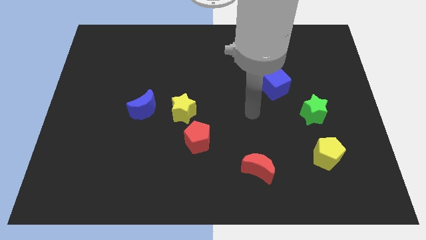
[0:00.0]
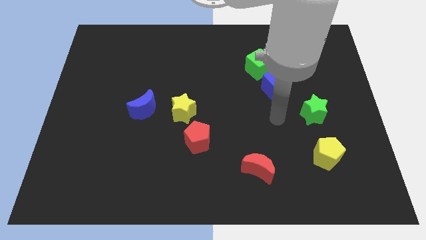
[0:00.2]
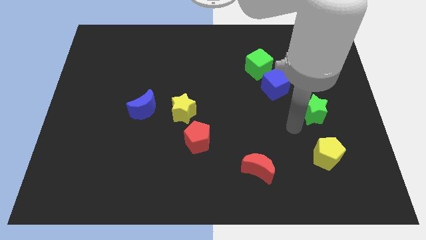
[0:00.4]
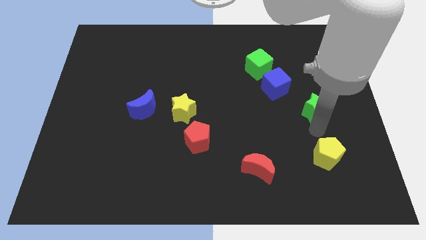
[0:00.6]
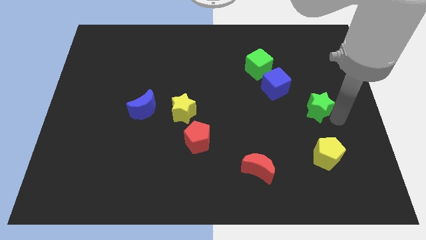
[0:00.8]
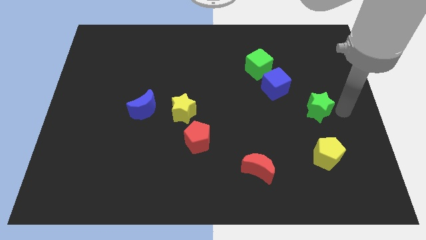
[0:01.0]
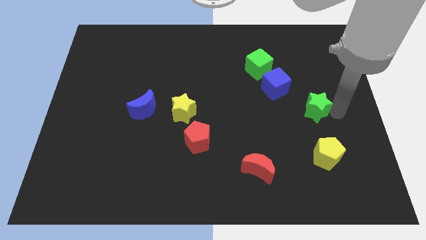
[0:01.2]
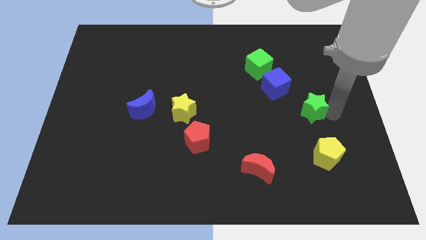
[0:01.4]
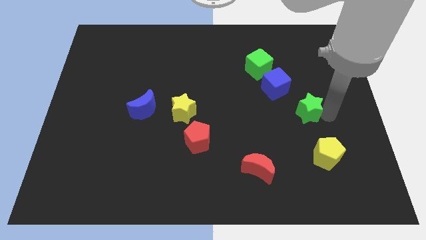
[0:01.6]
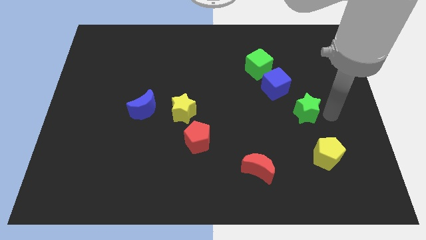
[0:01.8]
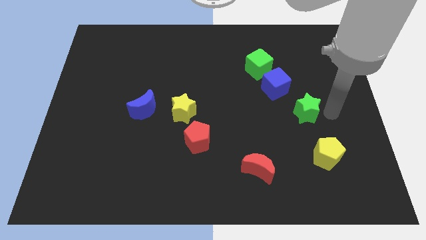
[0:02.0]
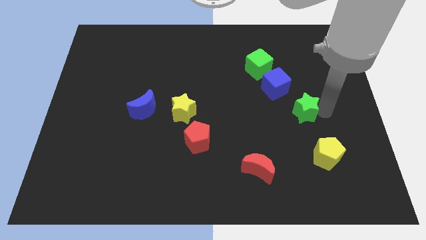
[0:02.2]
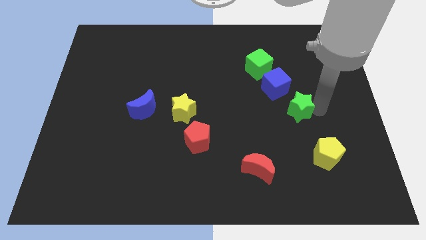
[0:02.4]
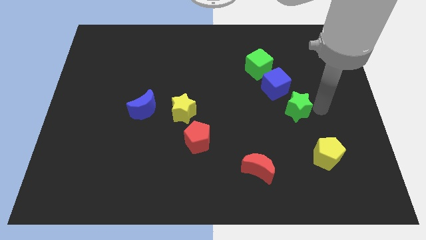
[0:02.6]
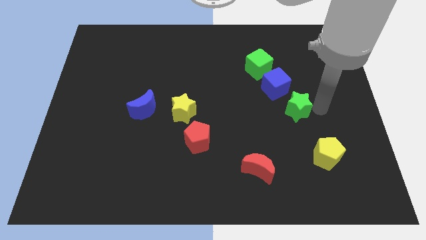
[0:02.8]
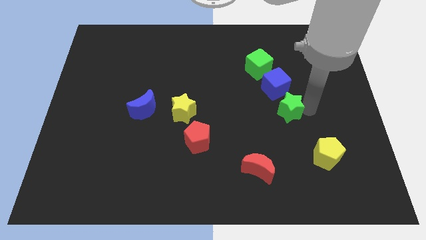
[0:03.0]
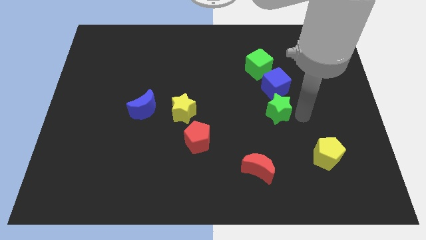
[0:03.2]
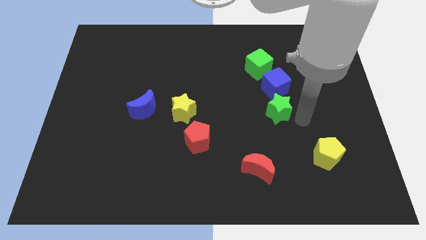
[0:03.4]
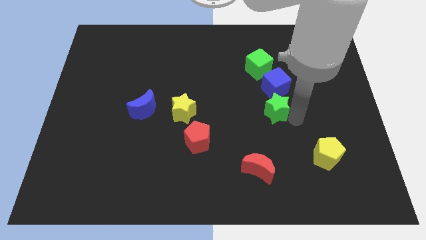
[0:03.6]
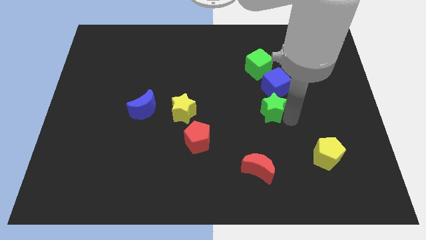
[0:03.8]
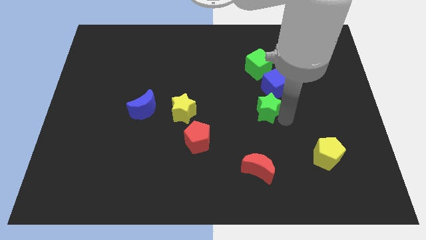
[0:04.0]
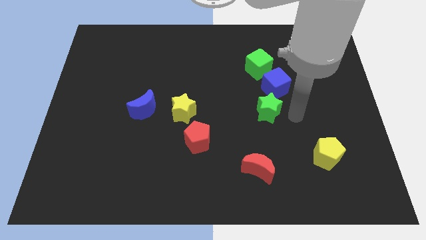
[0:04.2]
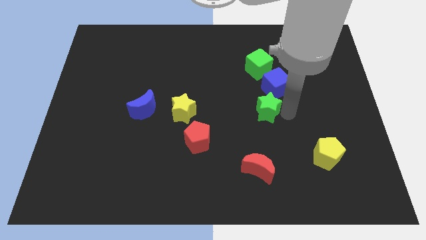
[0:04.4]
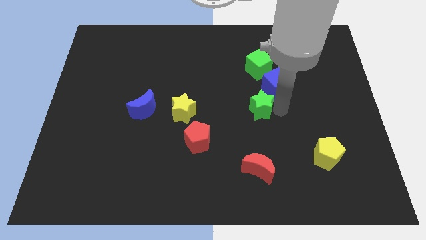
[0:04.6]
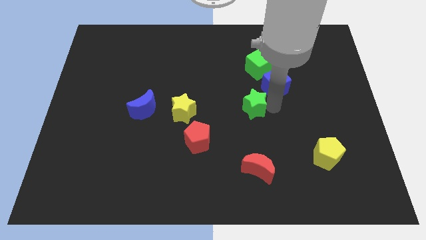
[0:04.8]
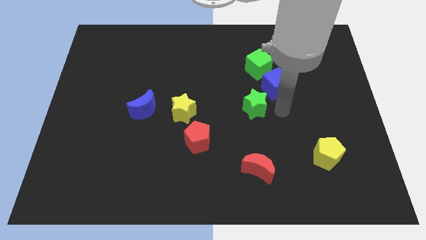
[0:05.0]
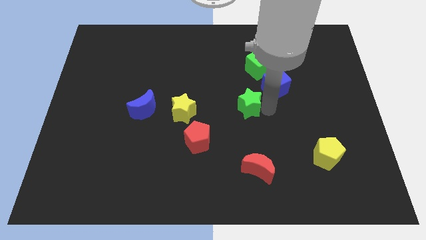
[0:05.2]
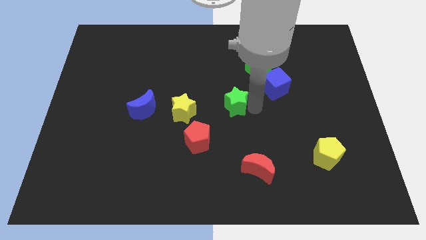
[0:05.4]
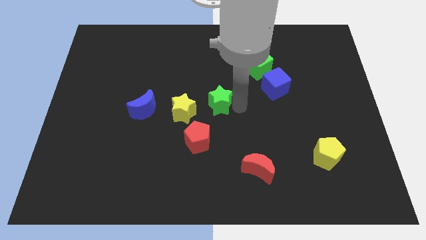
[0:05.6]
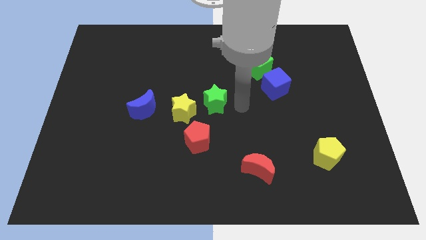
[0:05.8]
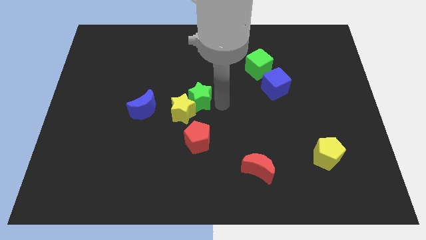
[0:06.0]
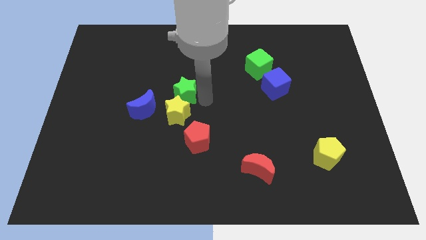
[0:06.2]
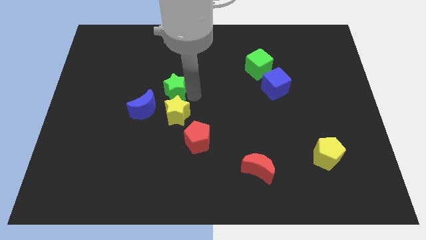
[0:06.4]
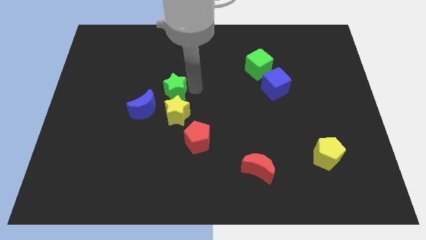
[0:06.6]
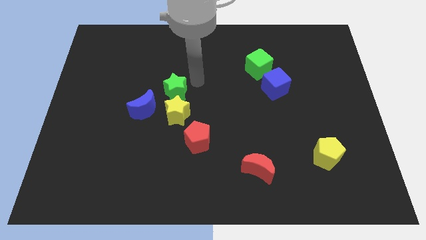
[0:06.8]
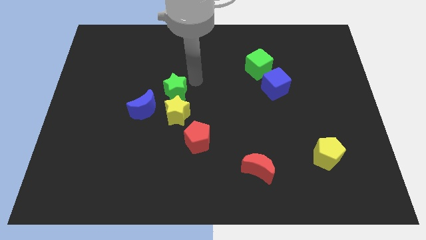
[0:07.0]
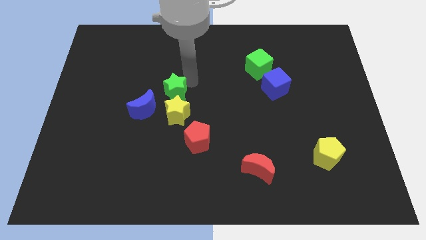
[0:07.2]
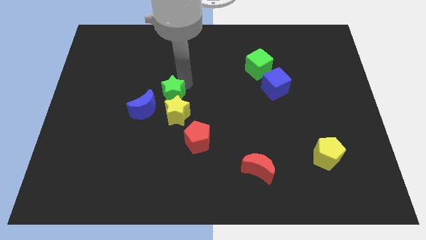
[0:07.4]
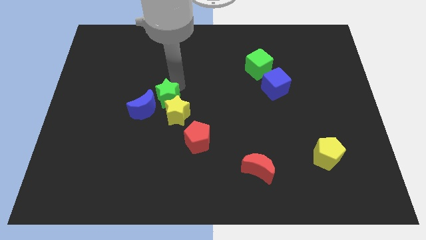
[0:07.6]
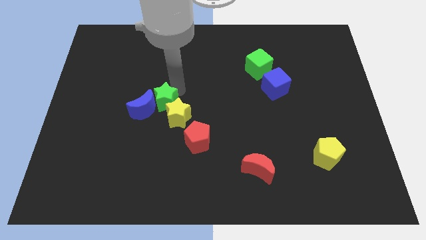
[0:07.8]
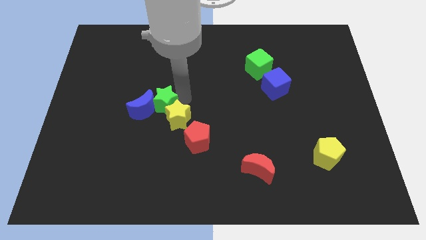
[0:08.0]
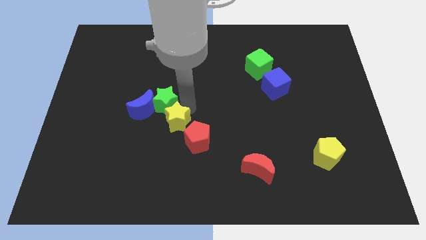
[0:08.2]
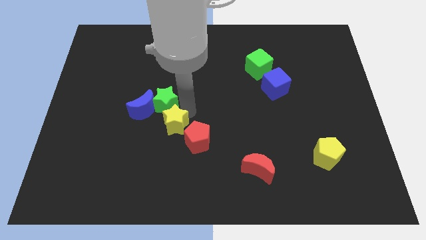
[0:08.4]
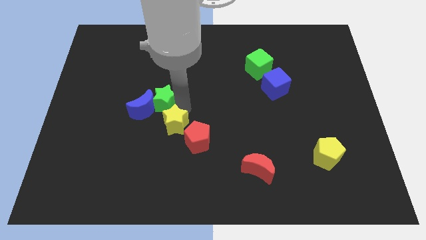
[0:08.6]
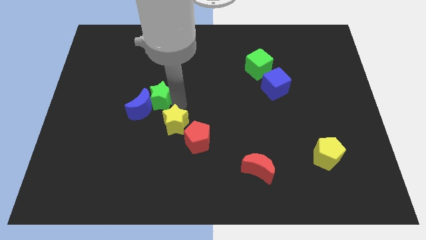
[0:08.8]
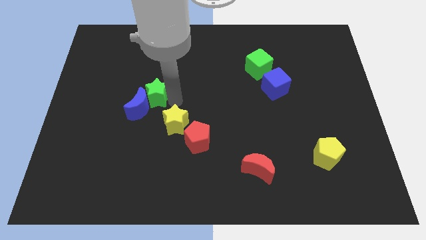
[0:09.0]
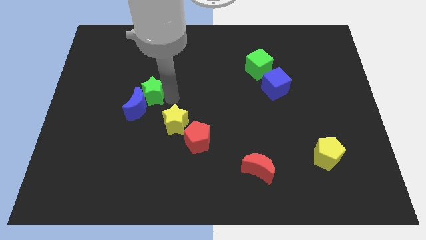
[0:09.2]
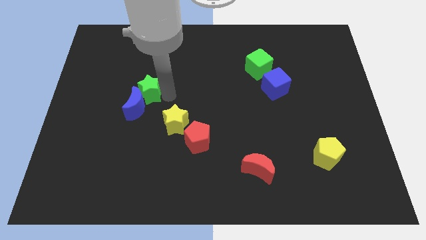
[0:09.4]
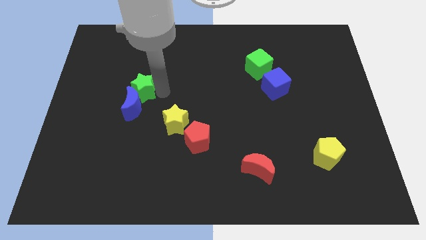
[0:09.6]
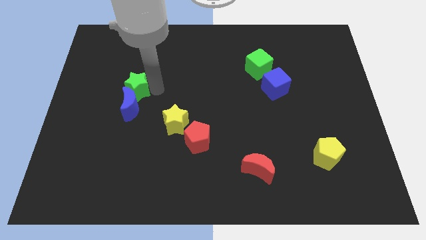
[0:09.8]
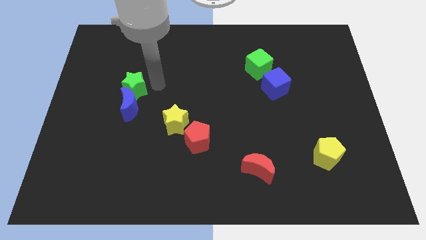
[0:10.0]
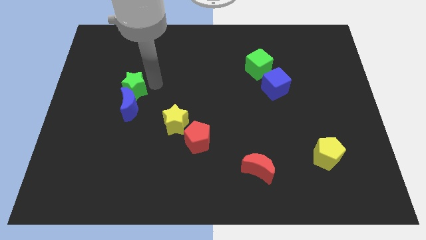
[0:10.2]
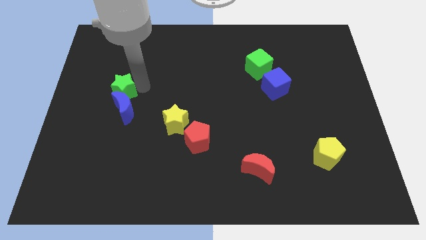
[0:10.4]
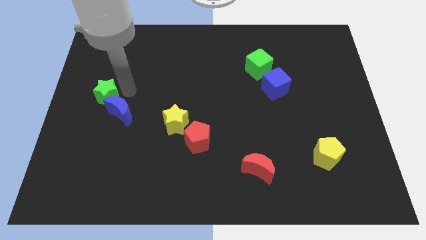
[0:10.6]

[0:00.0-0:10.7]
push the green star to the center left

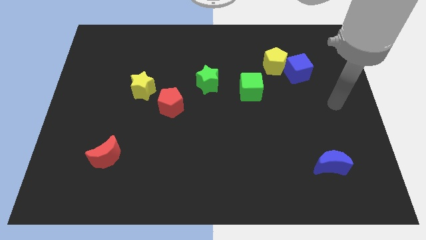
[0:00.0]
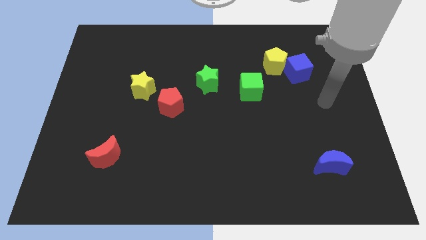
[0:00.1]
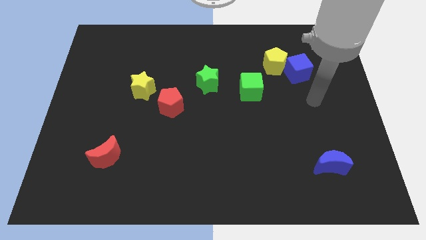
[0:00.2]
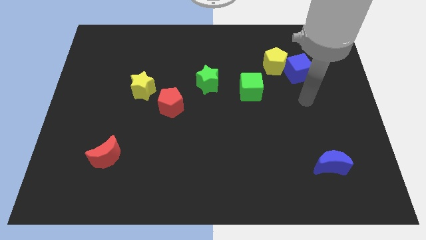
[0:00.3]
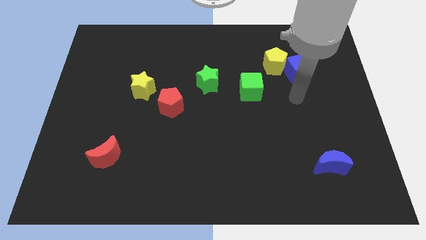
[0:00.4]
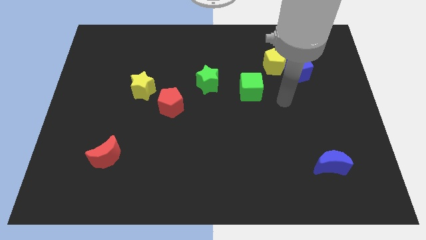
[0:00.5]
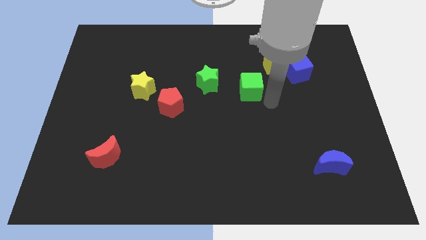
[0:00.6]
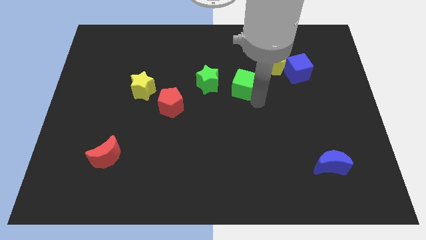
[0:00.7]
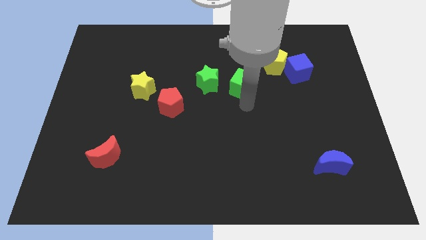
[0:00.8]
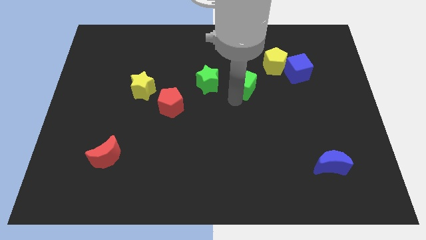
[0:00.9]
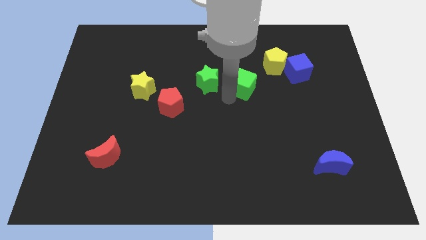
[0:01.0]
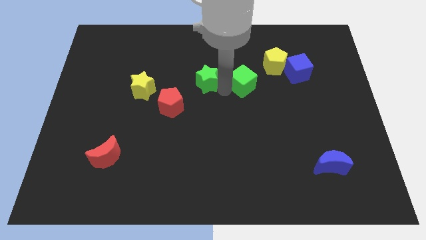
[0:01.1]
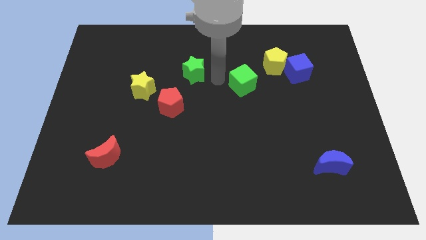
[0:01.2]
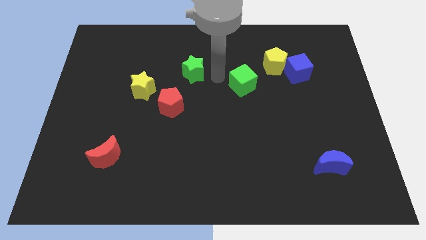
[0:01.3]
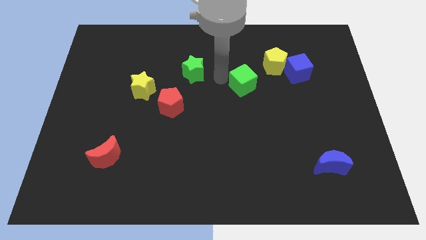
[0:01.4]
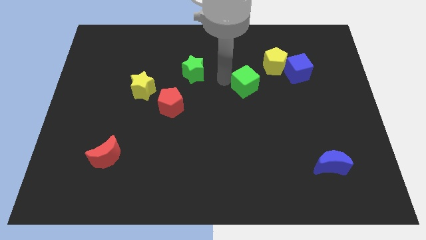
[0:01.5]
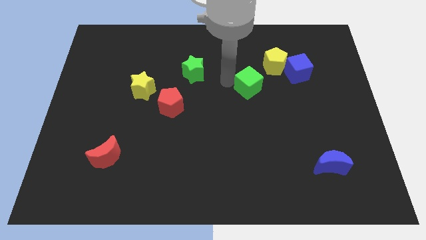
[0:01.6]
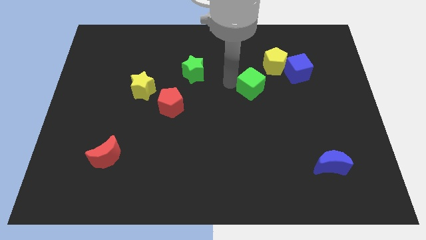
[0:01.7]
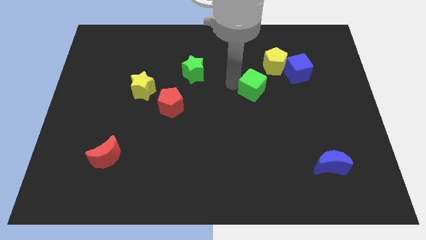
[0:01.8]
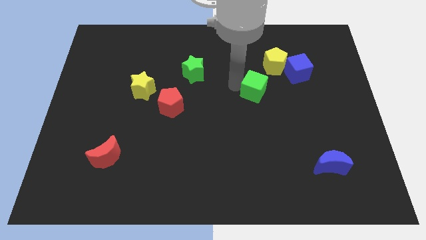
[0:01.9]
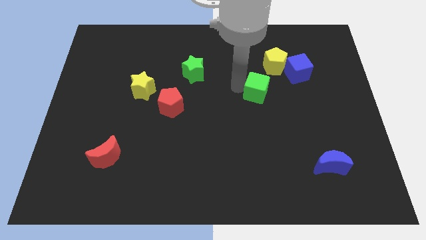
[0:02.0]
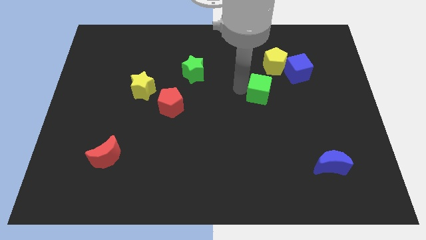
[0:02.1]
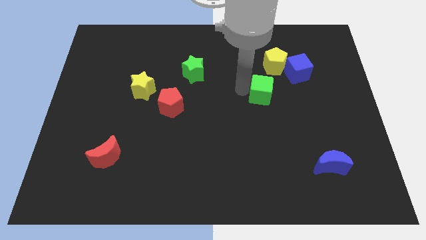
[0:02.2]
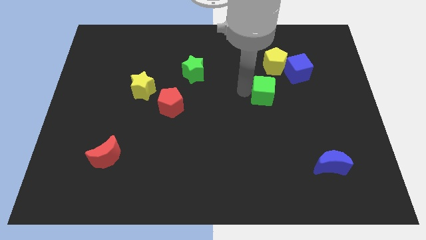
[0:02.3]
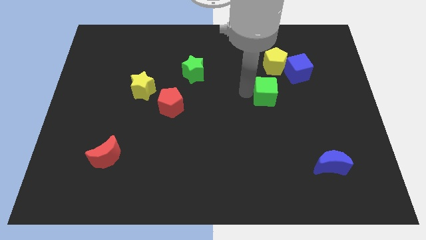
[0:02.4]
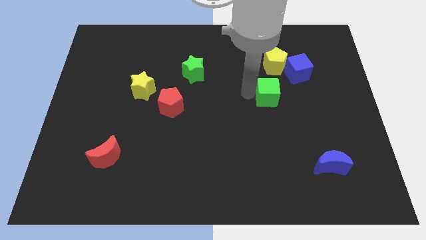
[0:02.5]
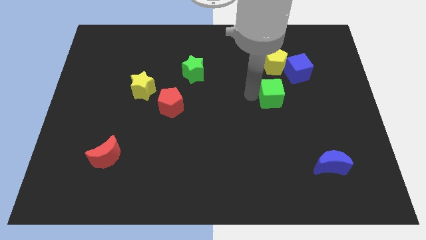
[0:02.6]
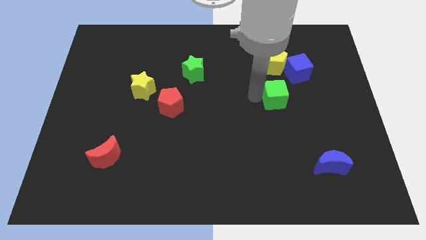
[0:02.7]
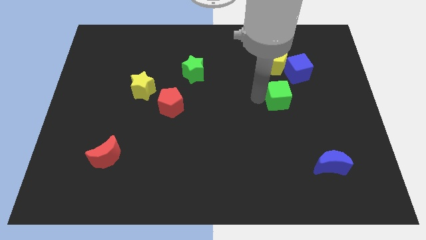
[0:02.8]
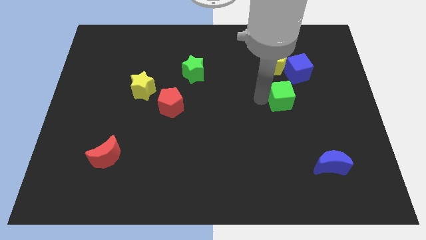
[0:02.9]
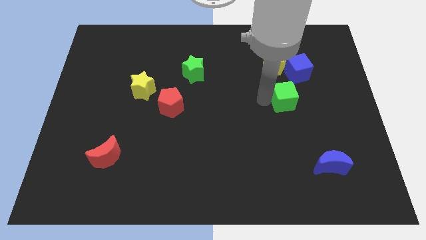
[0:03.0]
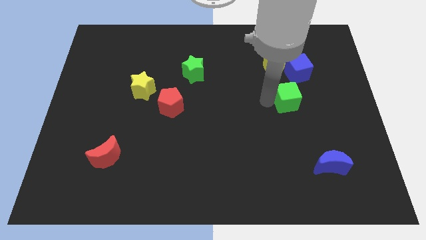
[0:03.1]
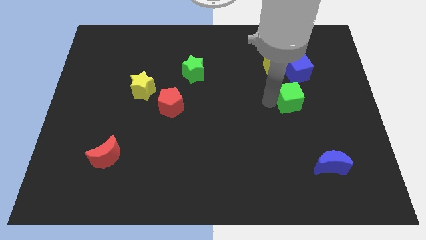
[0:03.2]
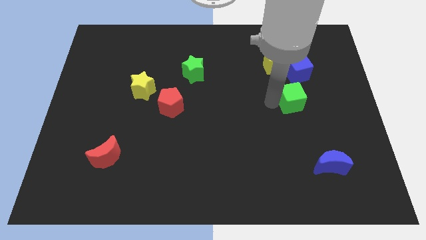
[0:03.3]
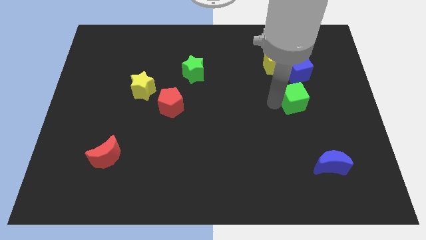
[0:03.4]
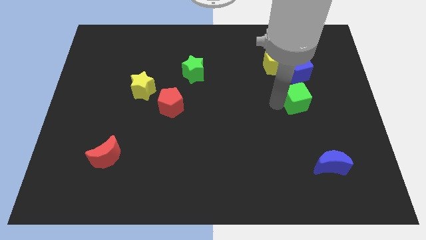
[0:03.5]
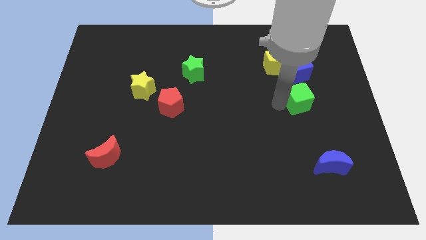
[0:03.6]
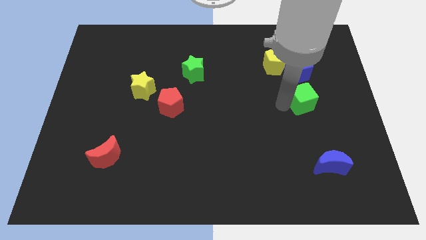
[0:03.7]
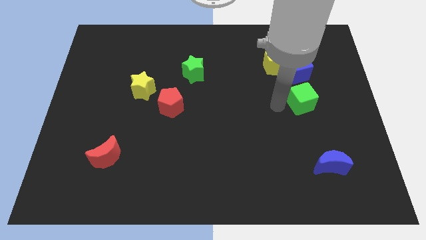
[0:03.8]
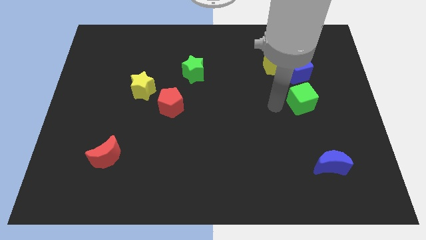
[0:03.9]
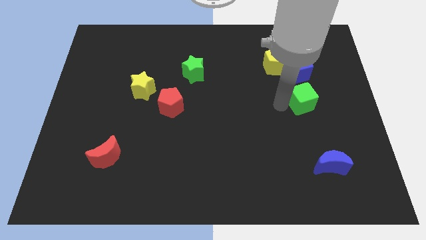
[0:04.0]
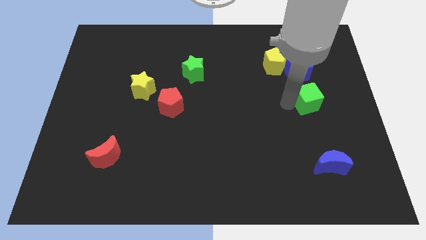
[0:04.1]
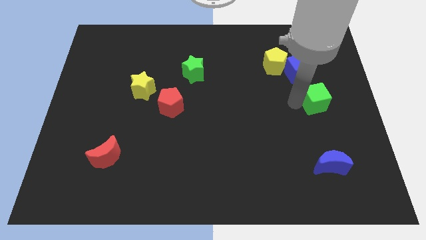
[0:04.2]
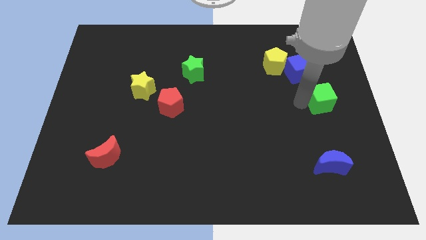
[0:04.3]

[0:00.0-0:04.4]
push the green cube to the right side of the board
